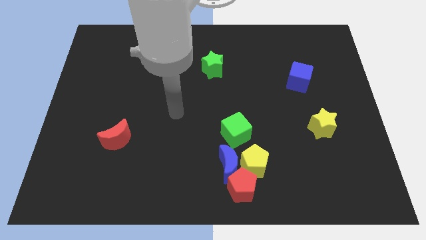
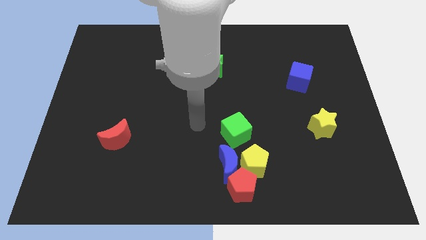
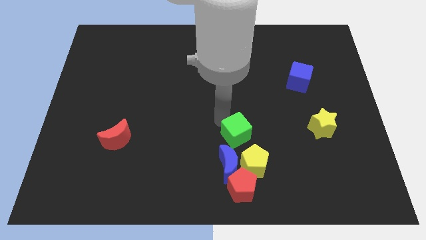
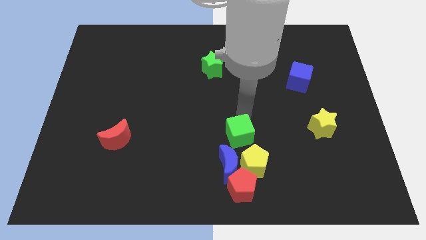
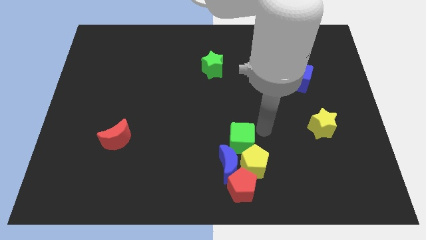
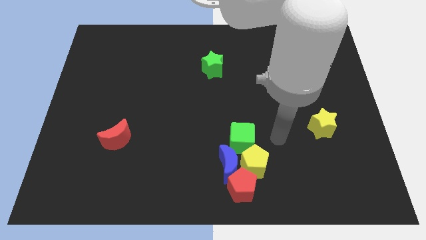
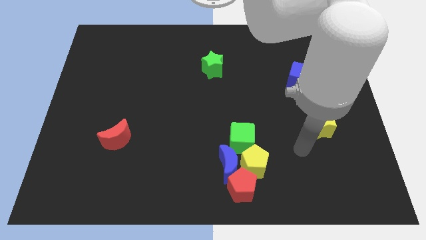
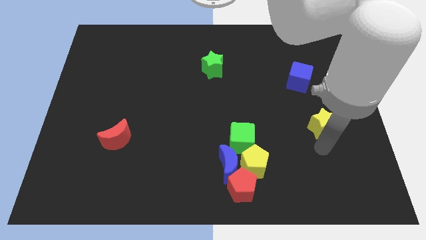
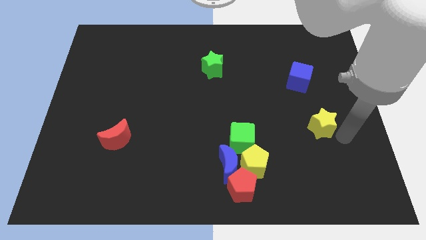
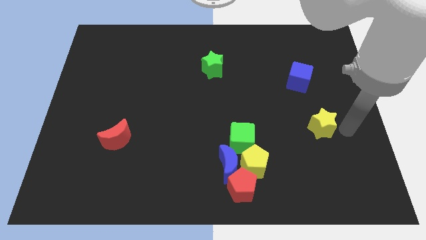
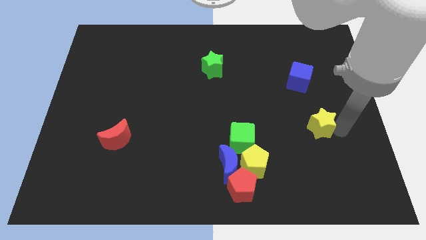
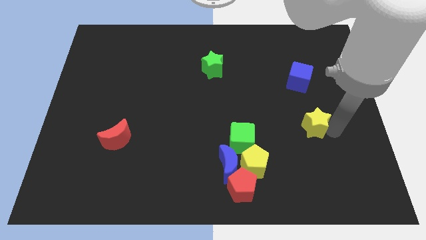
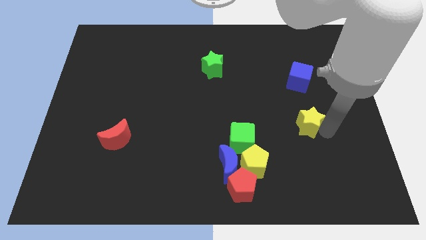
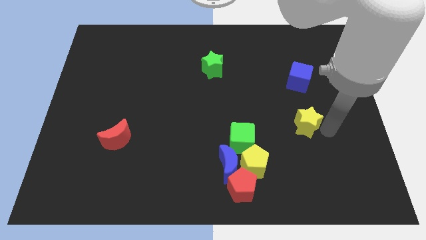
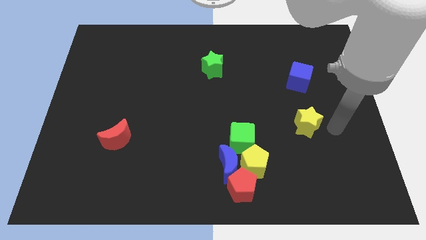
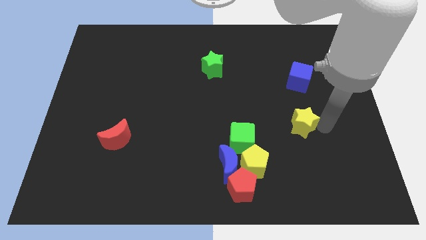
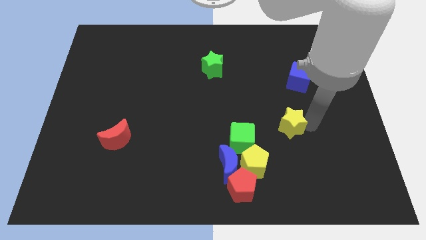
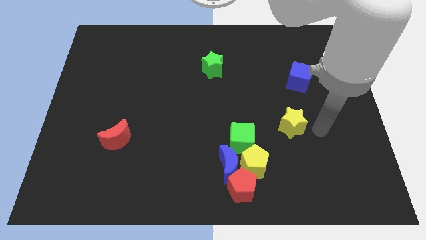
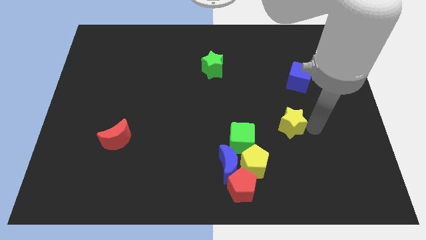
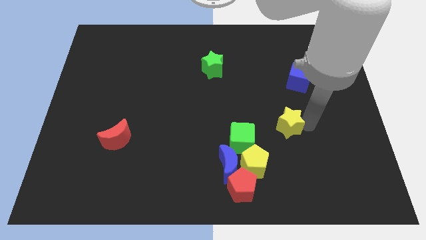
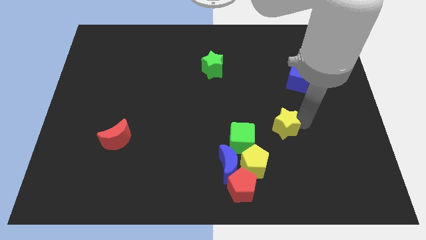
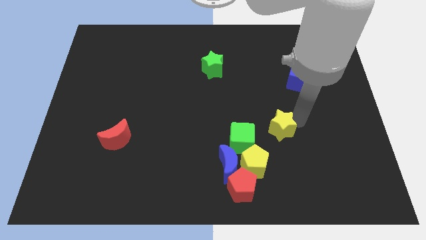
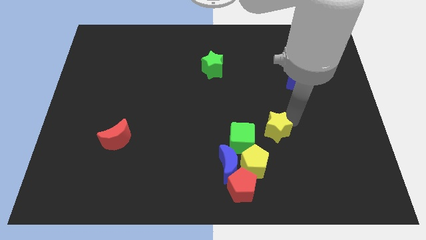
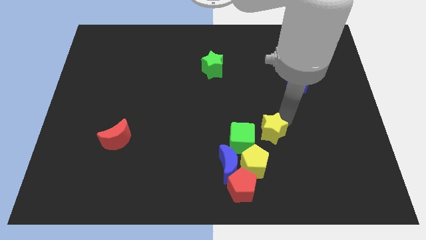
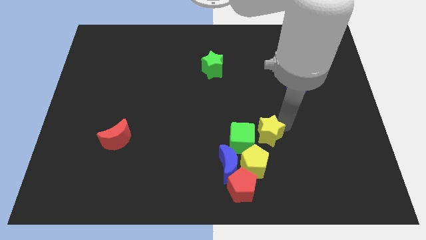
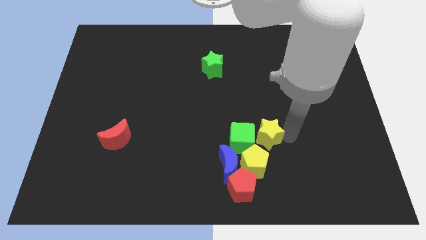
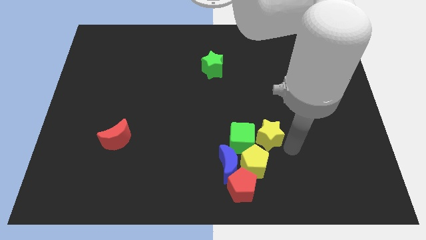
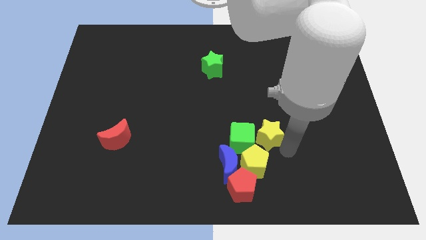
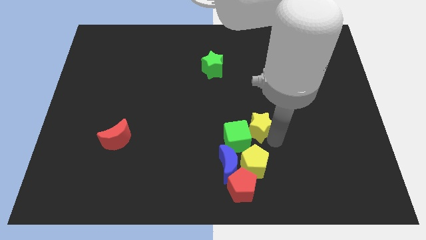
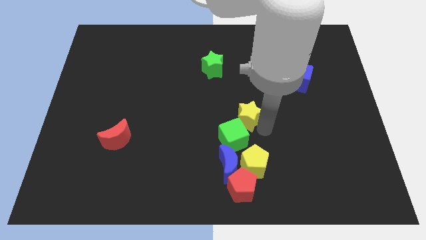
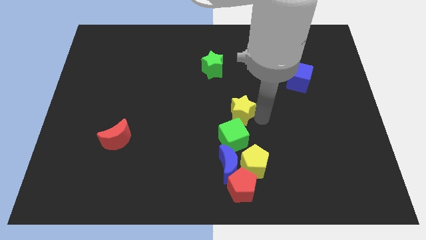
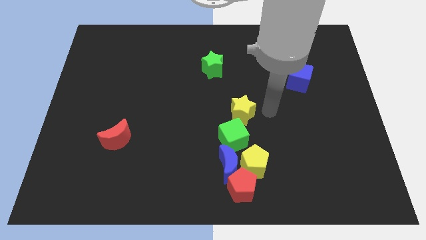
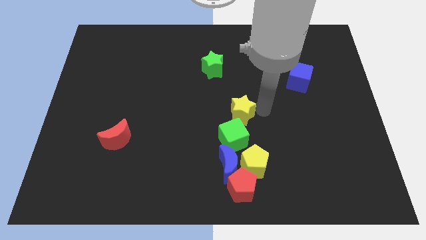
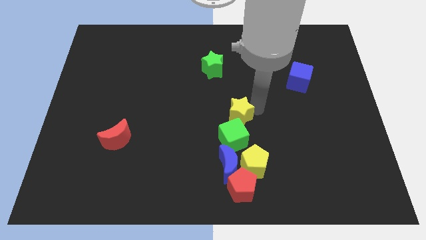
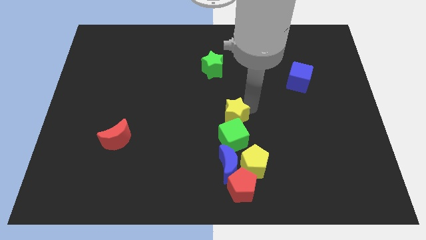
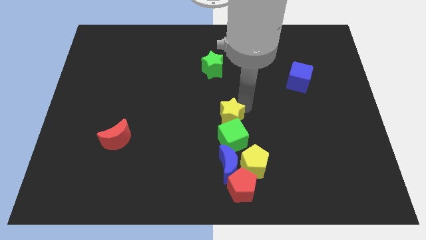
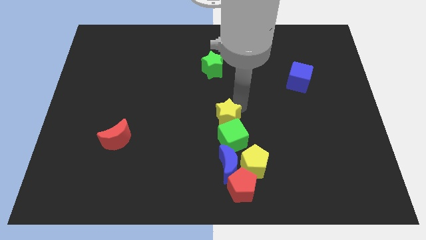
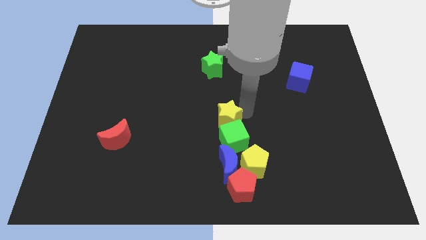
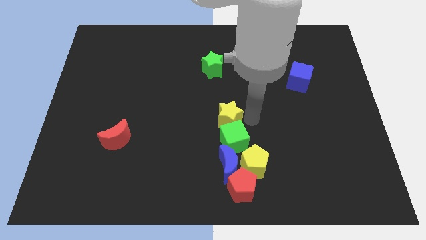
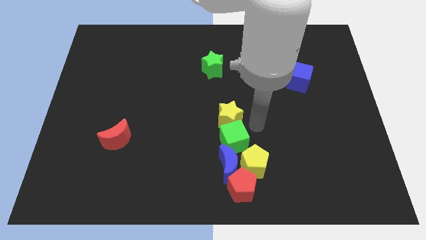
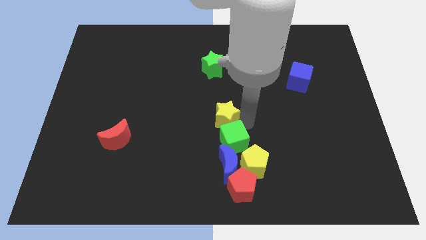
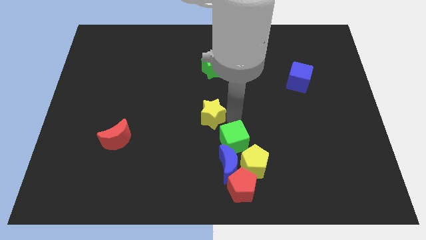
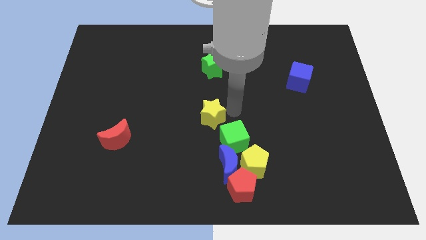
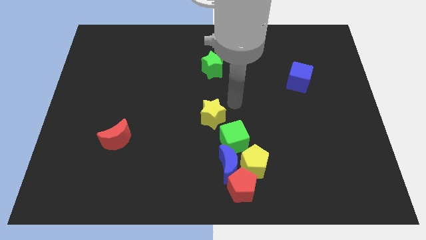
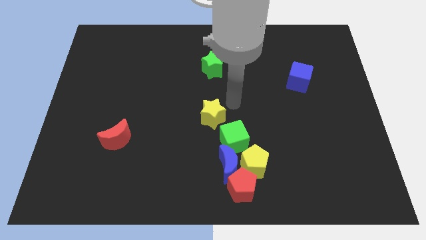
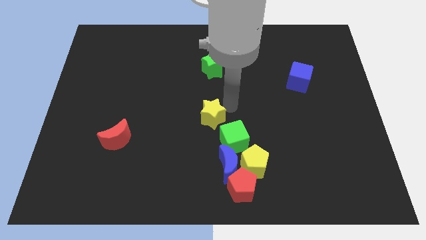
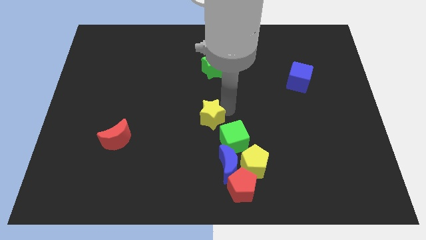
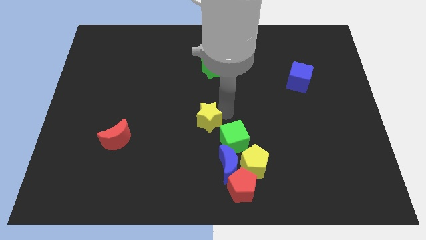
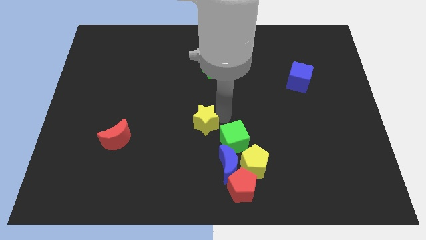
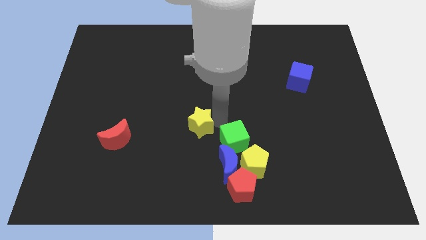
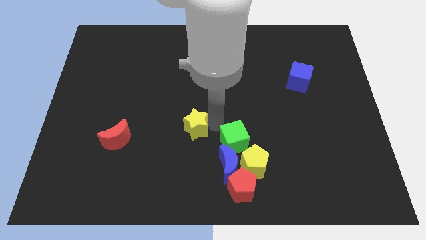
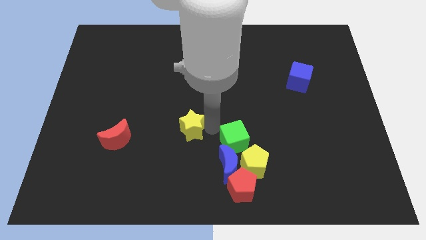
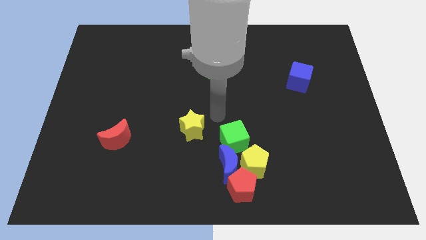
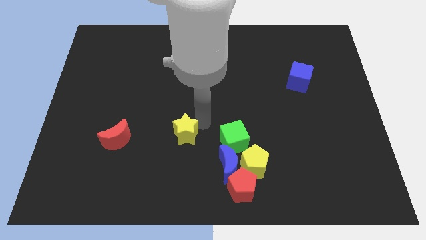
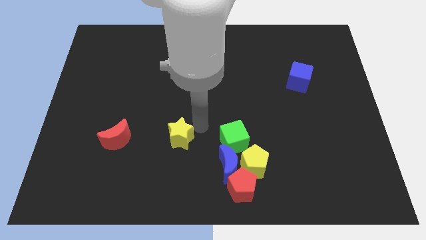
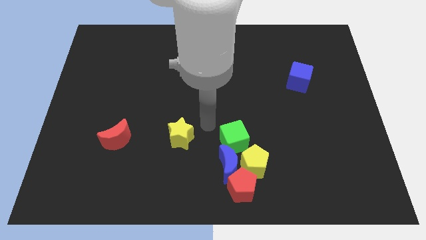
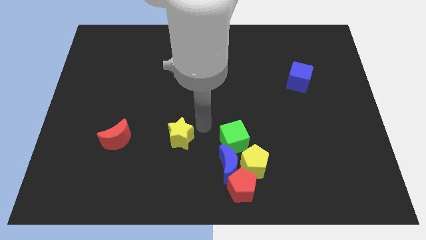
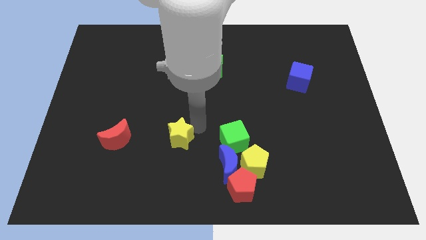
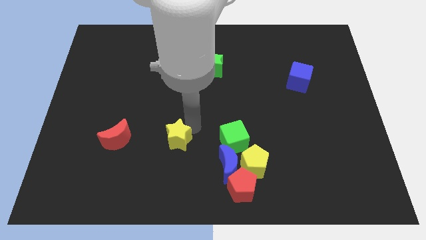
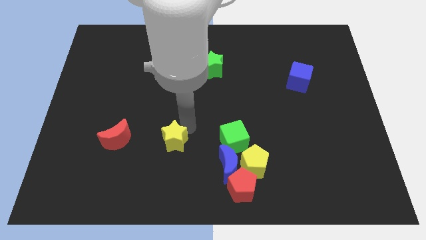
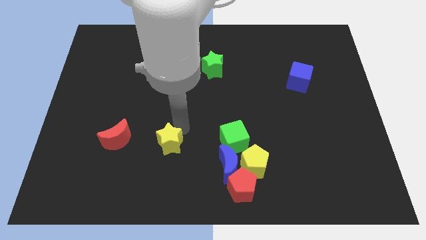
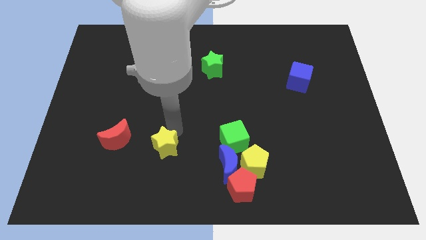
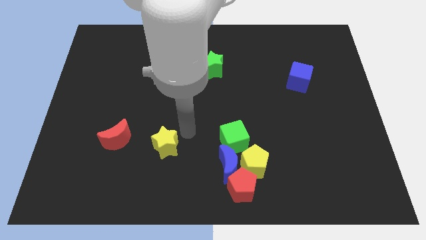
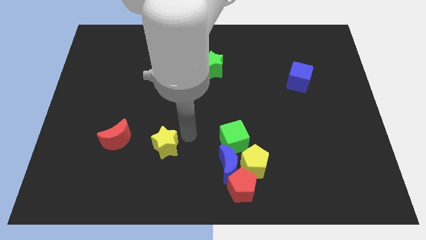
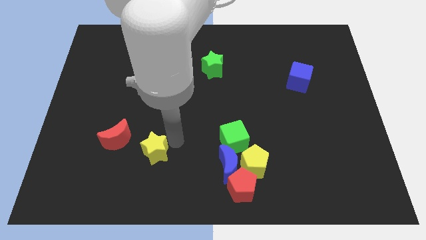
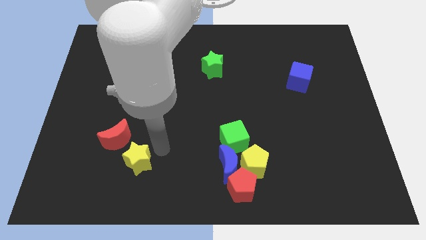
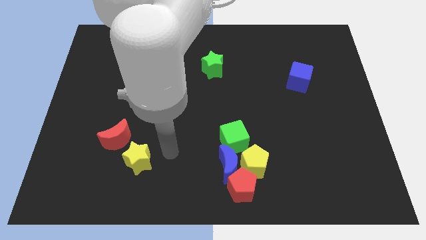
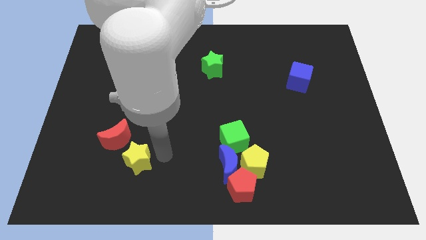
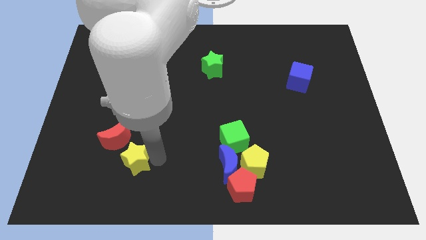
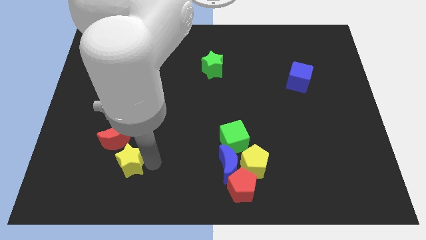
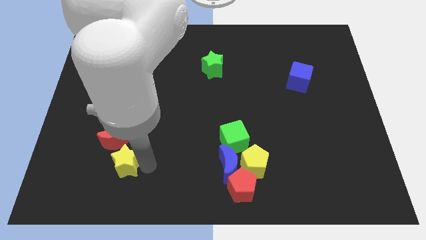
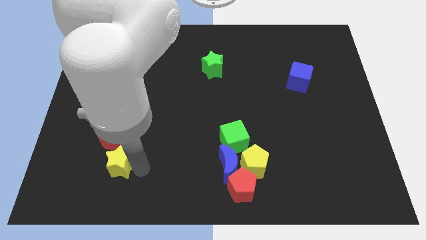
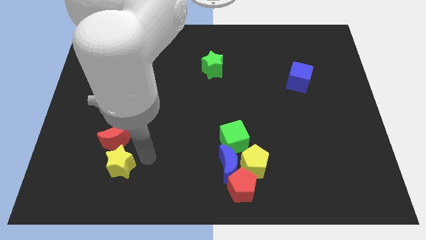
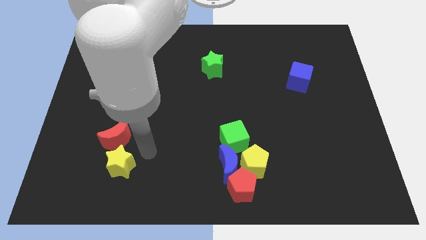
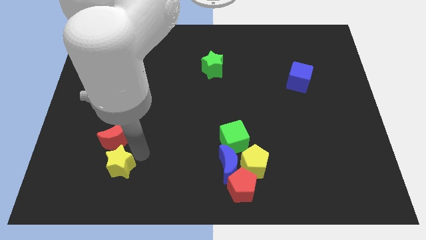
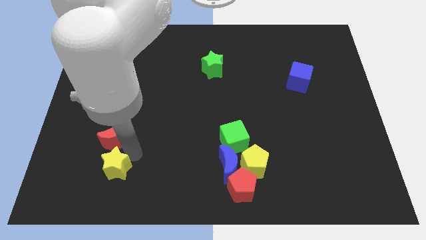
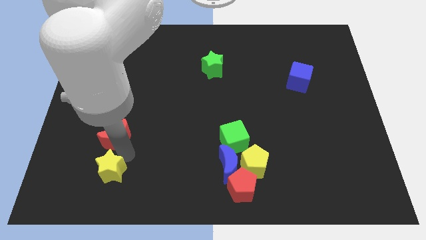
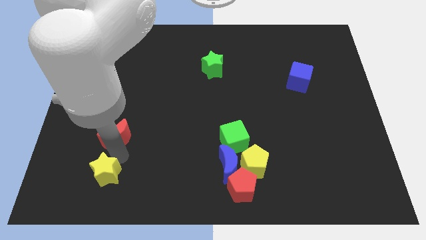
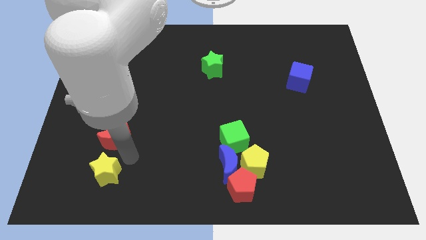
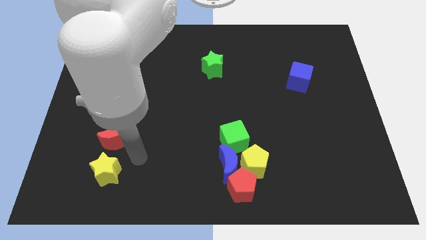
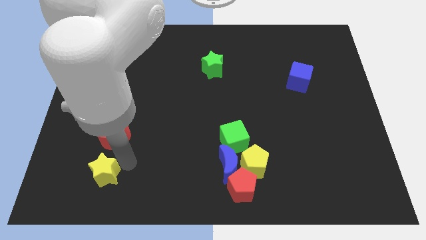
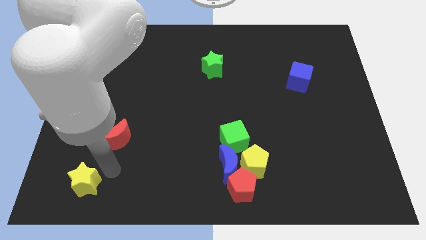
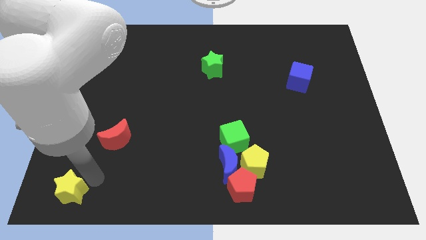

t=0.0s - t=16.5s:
put the yellow star to the bottom left of the board
